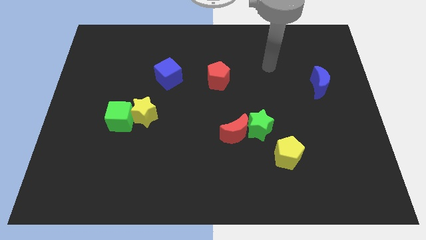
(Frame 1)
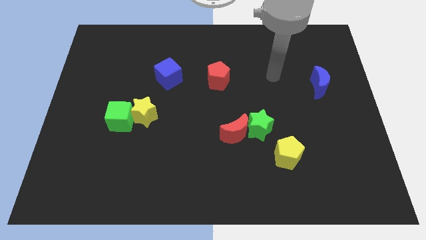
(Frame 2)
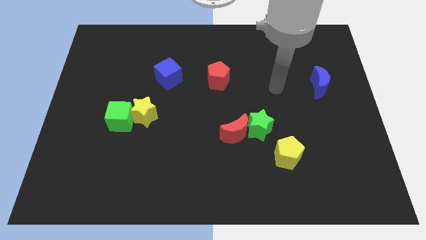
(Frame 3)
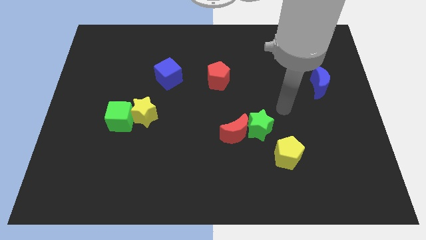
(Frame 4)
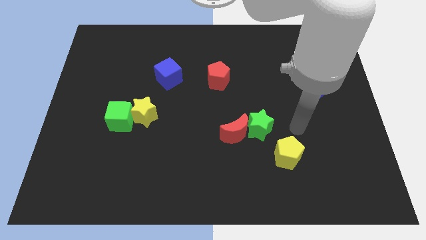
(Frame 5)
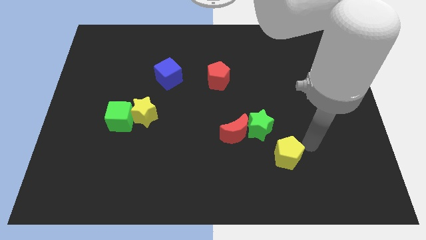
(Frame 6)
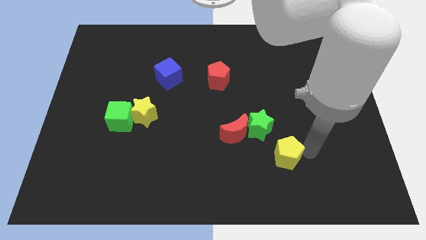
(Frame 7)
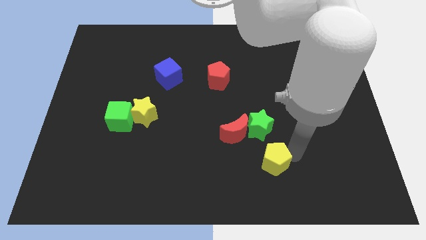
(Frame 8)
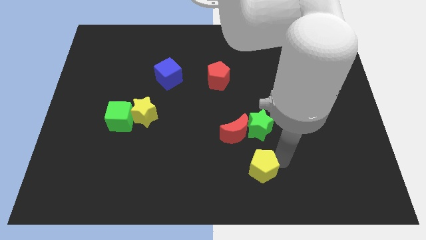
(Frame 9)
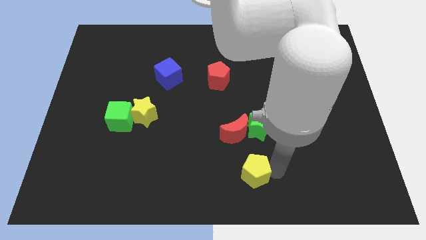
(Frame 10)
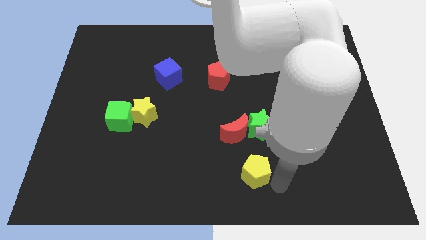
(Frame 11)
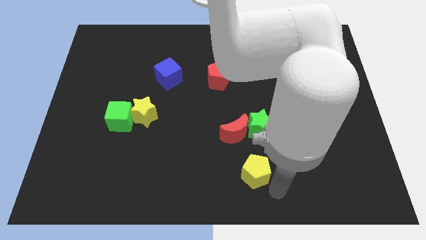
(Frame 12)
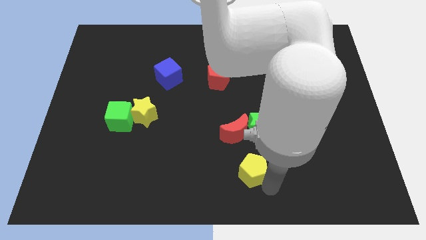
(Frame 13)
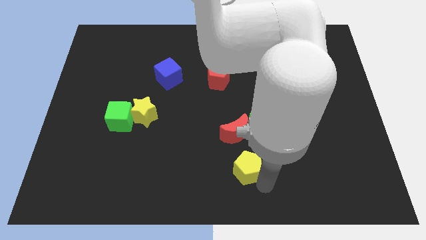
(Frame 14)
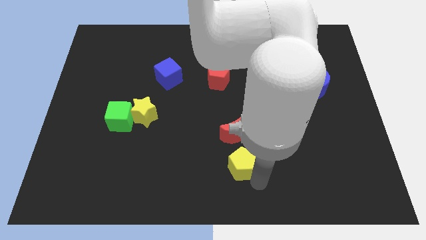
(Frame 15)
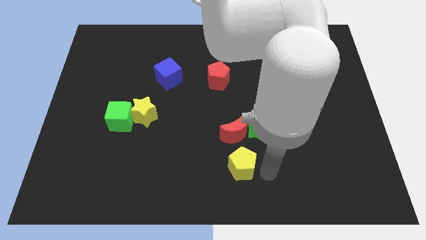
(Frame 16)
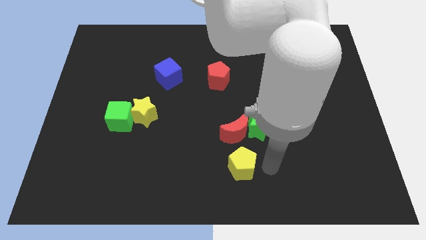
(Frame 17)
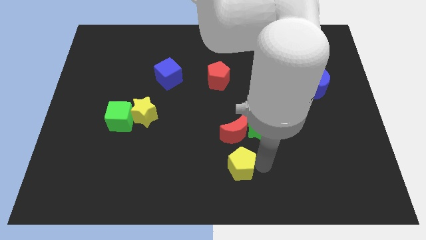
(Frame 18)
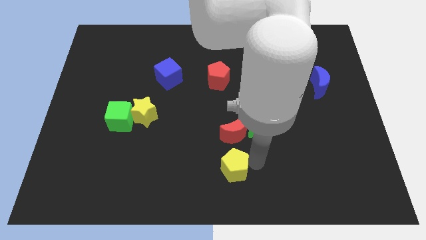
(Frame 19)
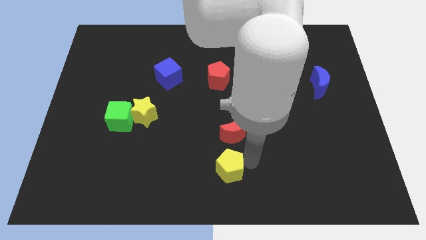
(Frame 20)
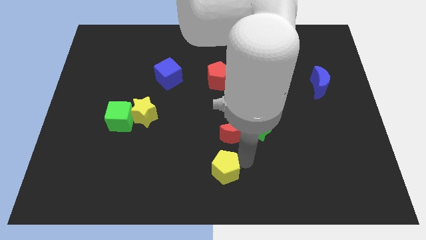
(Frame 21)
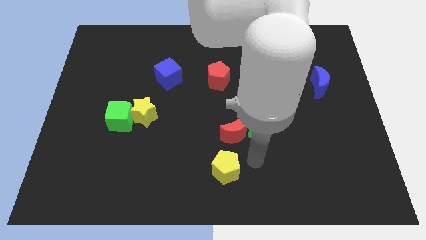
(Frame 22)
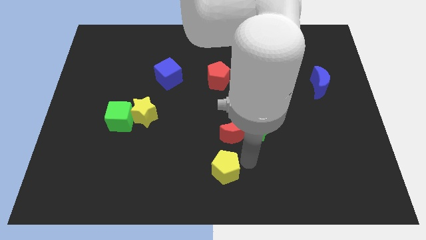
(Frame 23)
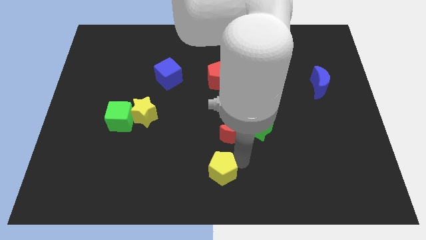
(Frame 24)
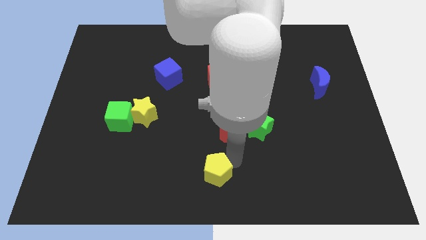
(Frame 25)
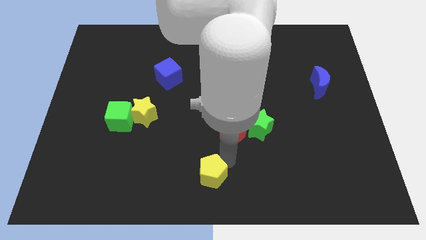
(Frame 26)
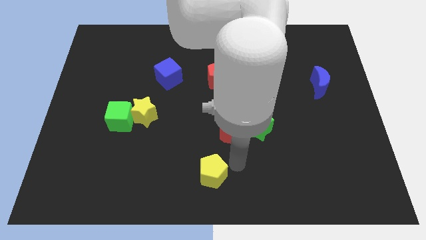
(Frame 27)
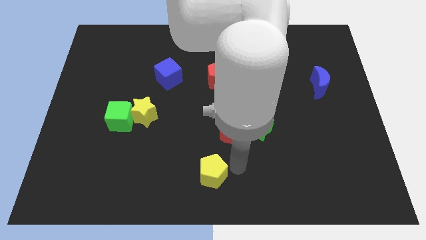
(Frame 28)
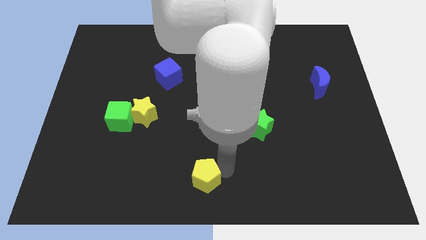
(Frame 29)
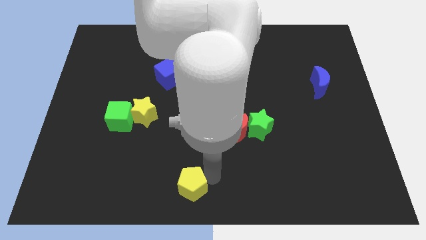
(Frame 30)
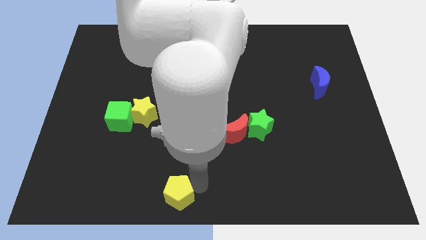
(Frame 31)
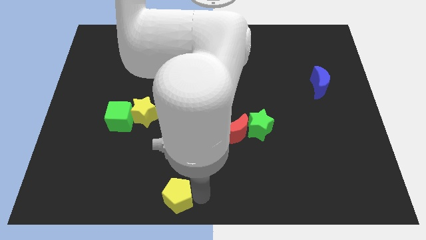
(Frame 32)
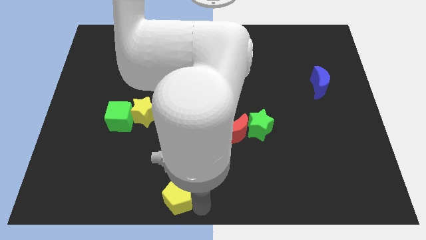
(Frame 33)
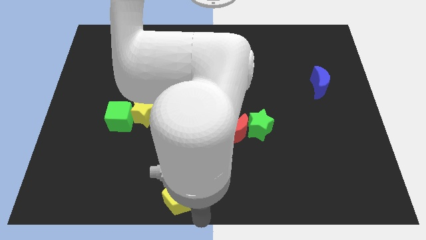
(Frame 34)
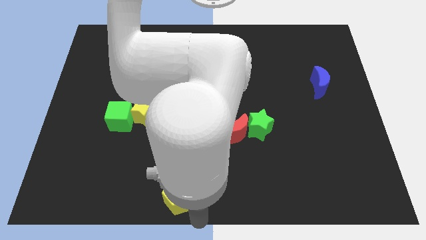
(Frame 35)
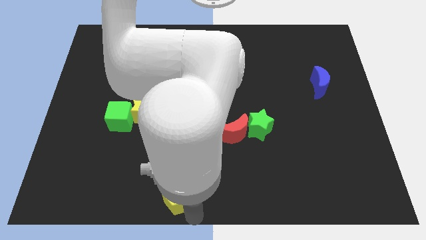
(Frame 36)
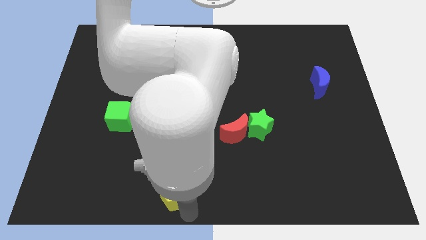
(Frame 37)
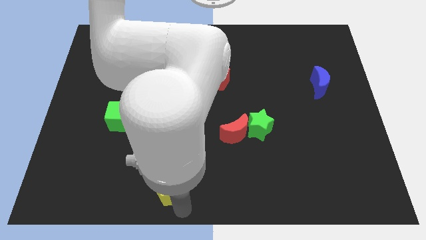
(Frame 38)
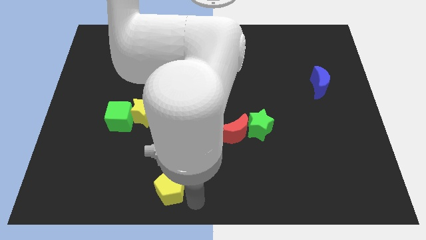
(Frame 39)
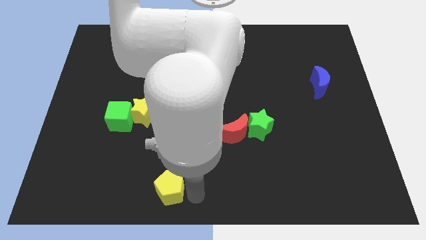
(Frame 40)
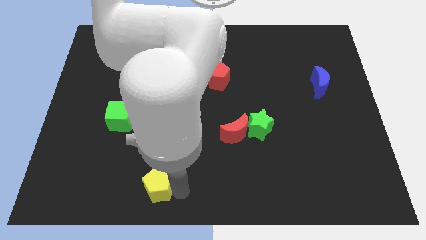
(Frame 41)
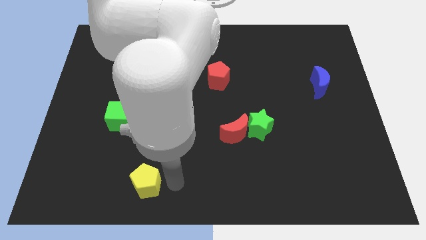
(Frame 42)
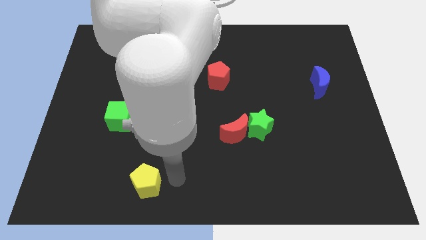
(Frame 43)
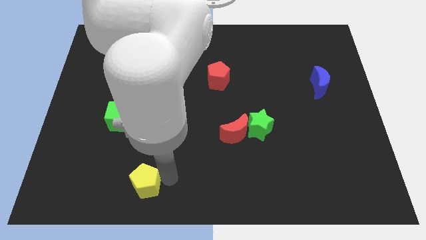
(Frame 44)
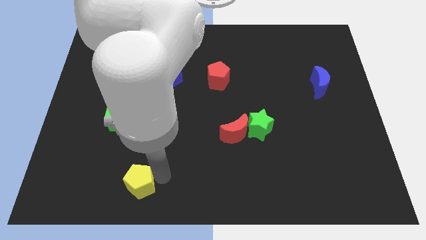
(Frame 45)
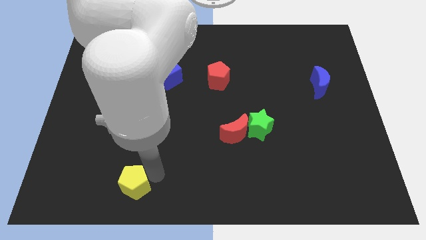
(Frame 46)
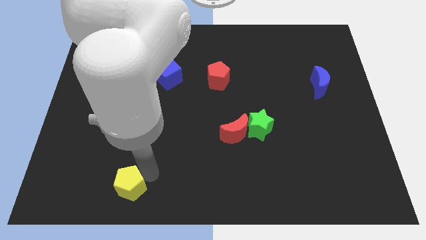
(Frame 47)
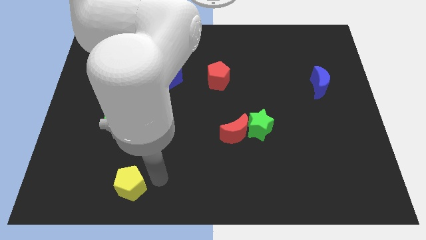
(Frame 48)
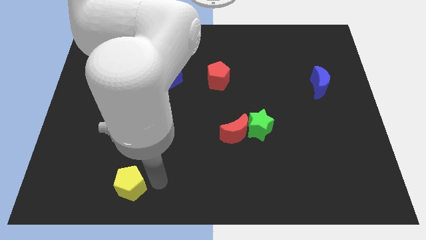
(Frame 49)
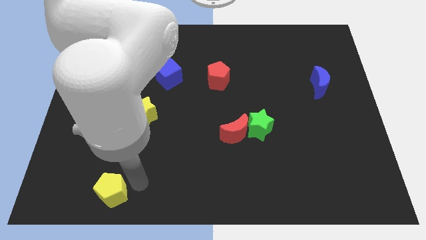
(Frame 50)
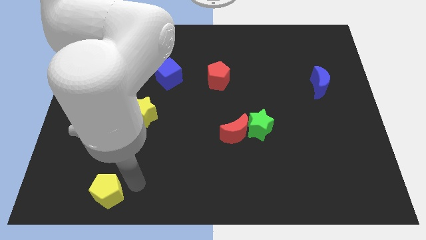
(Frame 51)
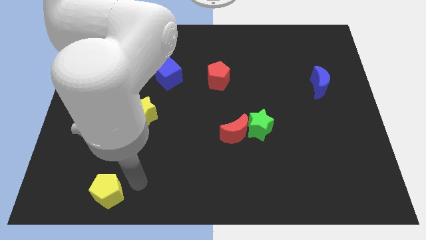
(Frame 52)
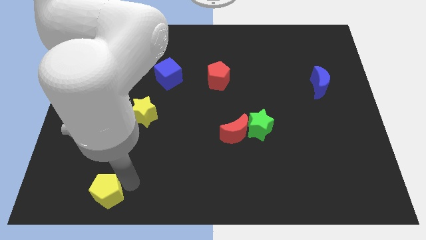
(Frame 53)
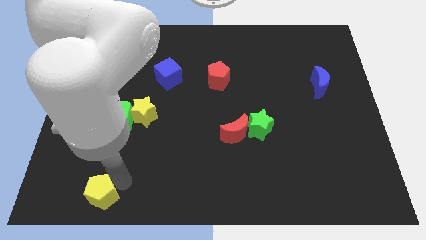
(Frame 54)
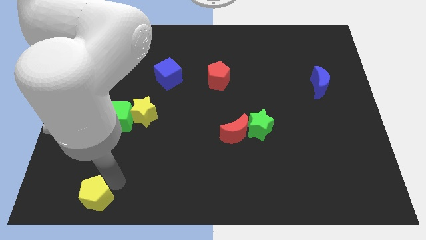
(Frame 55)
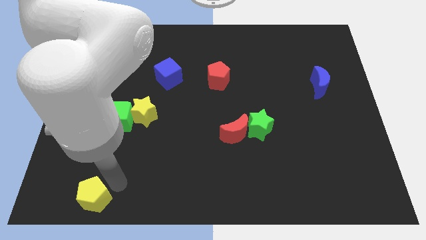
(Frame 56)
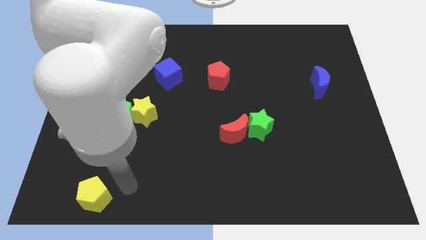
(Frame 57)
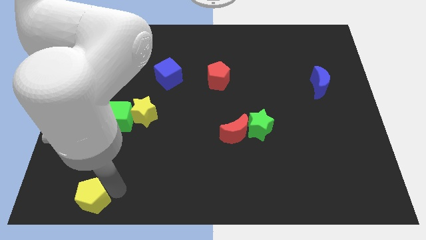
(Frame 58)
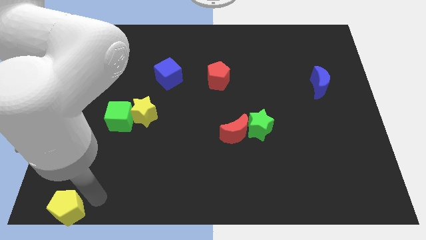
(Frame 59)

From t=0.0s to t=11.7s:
slide the yellow pentagon to the bottom left

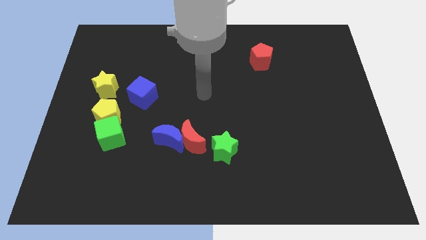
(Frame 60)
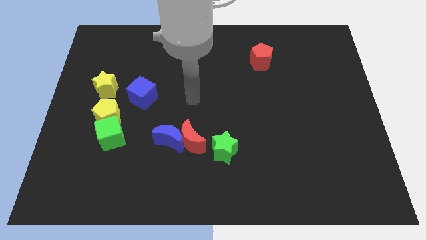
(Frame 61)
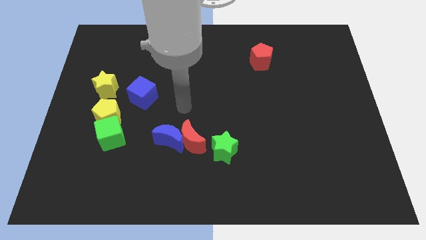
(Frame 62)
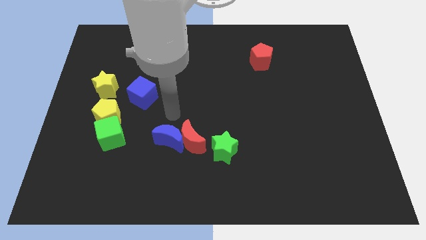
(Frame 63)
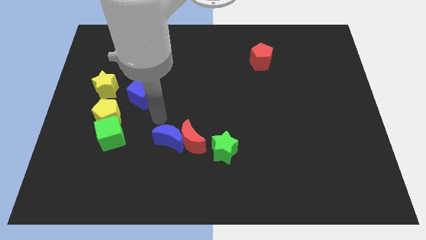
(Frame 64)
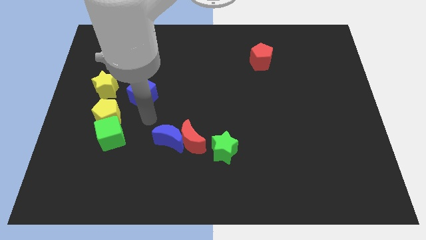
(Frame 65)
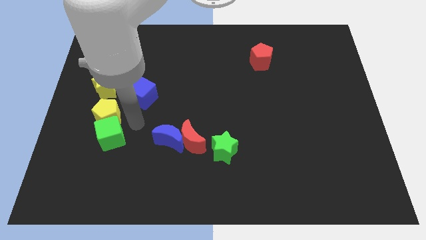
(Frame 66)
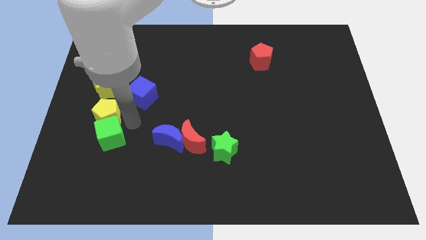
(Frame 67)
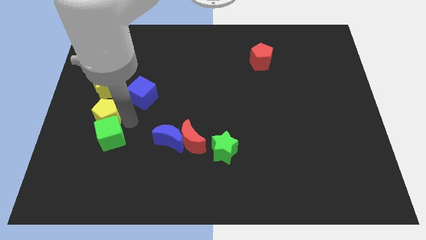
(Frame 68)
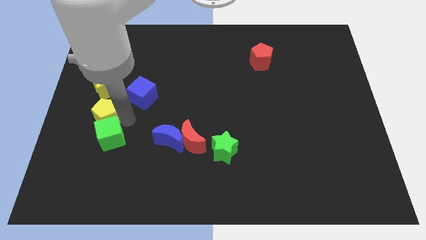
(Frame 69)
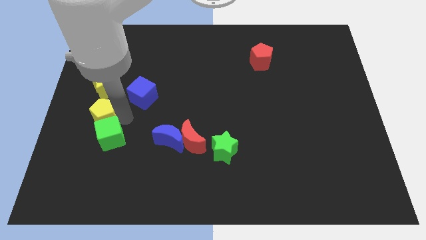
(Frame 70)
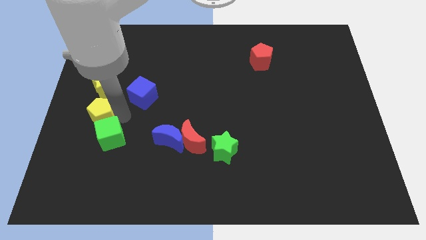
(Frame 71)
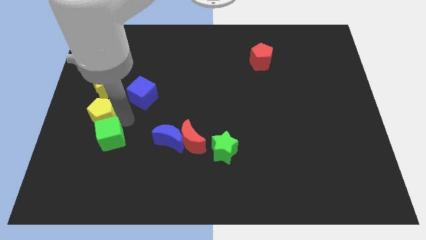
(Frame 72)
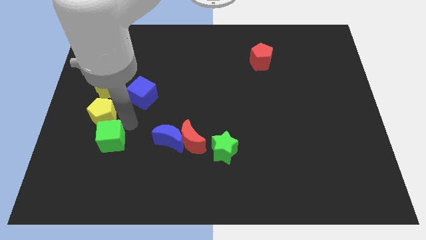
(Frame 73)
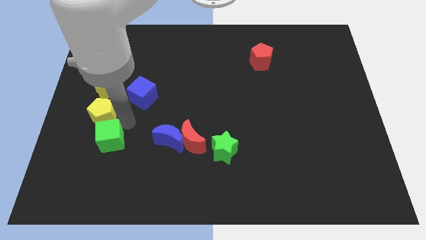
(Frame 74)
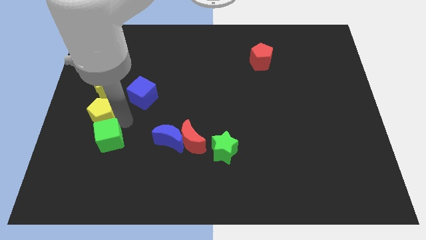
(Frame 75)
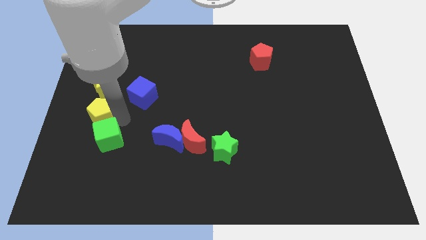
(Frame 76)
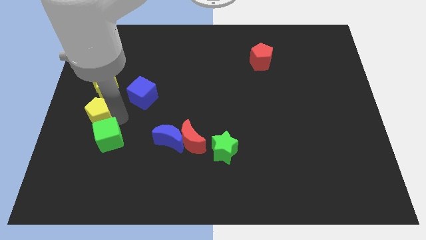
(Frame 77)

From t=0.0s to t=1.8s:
move the yellow pentagon to the center left
